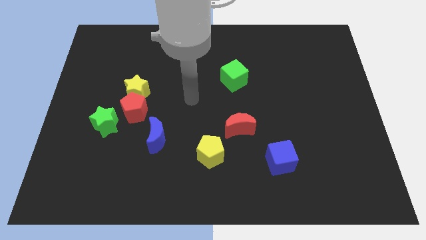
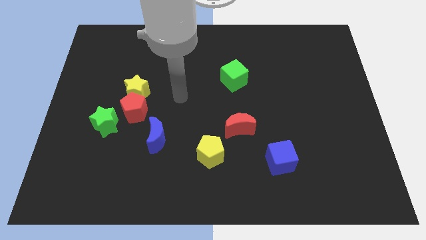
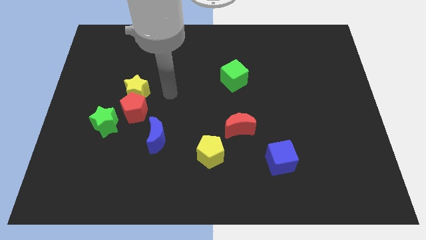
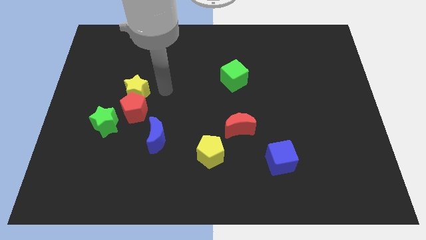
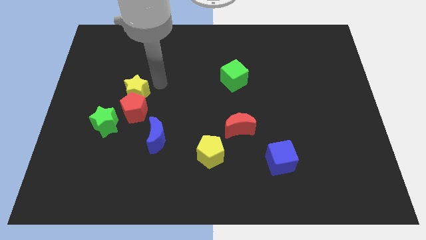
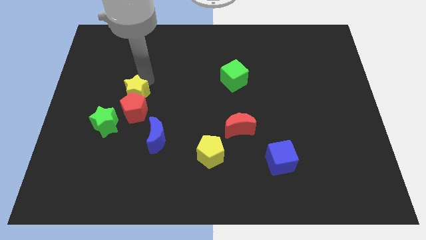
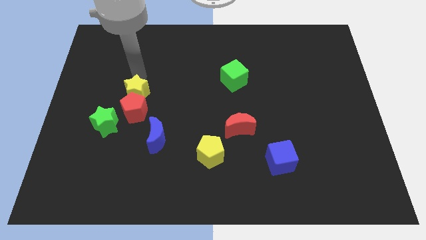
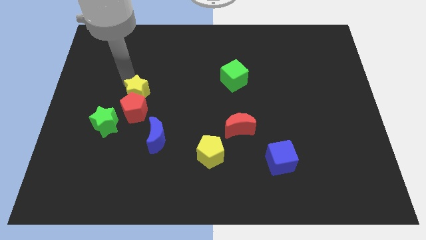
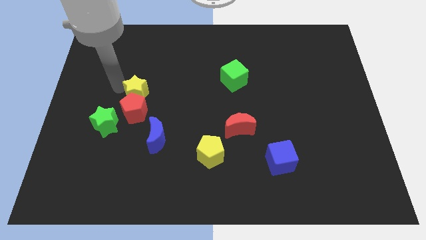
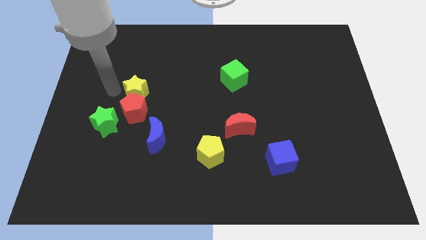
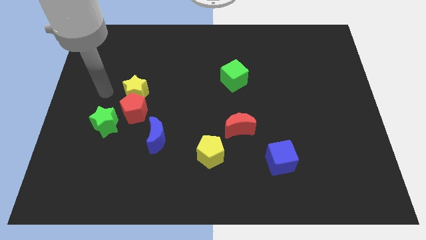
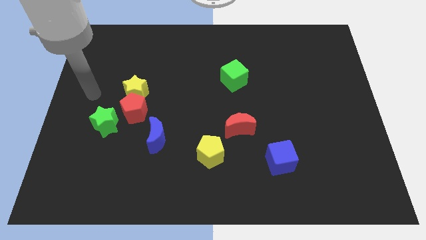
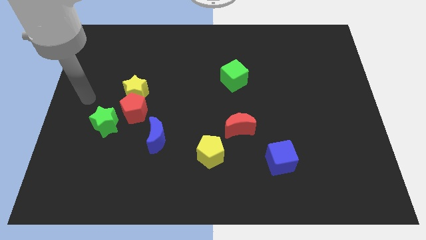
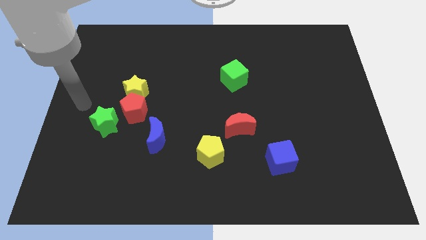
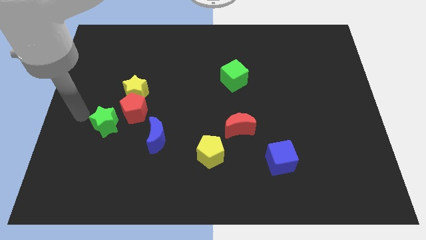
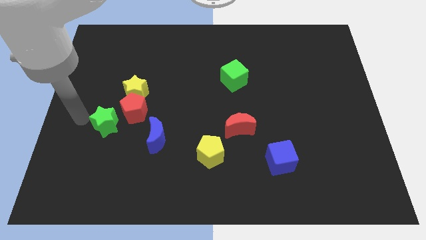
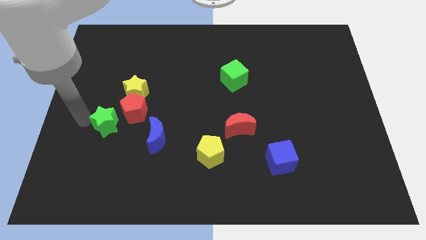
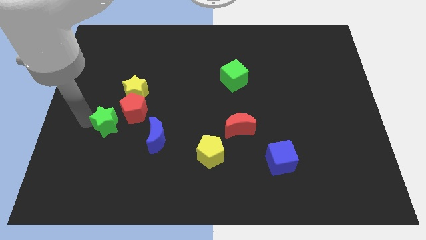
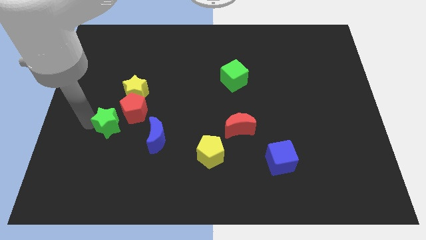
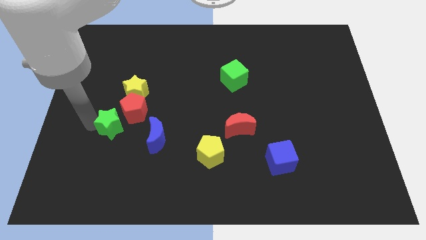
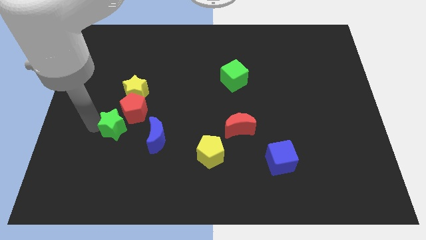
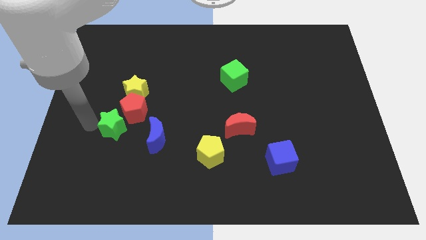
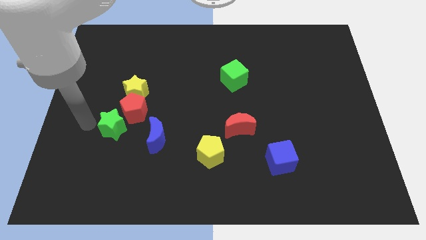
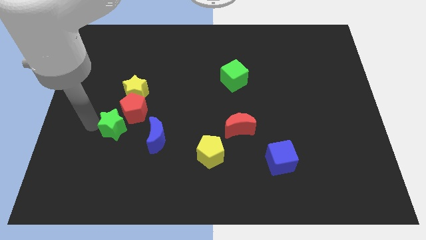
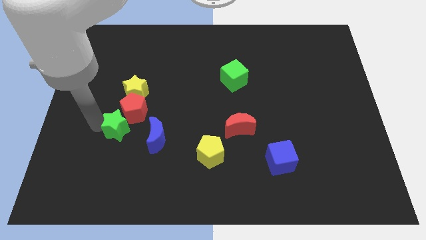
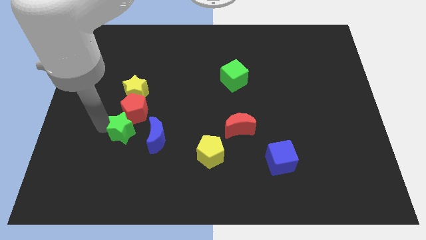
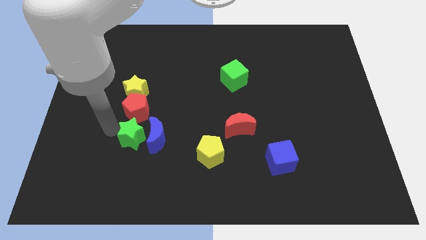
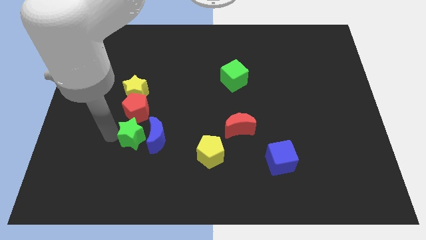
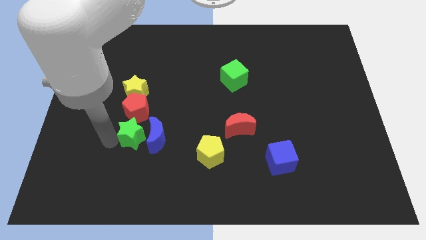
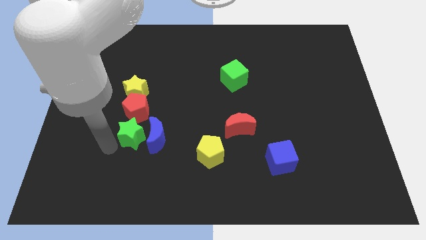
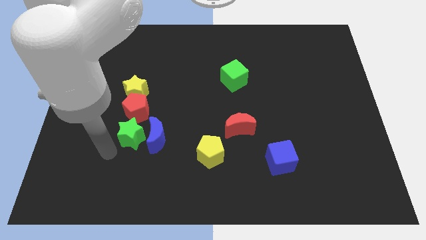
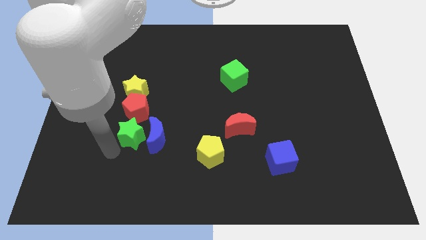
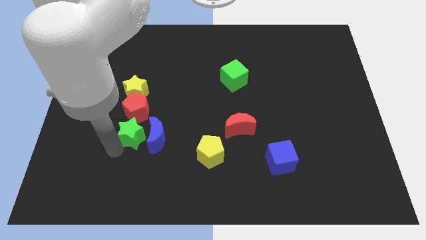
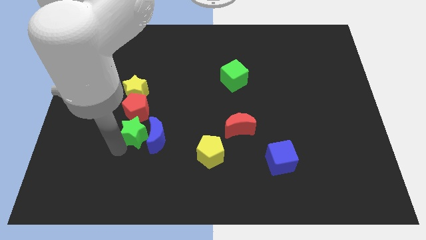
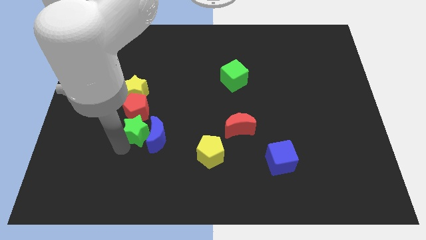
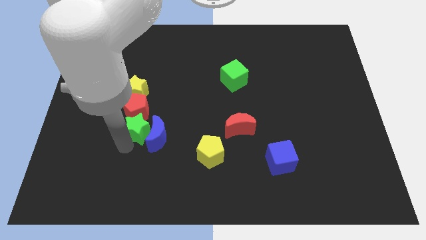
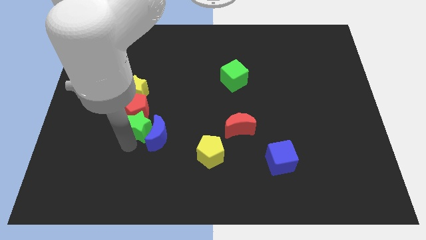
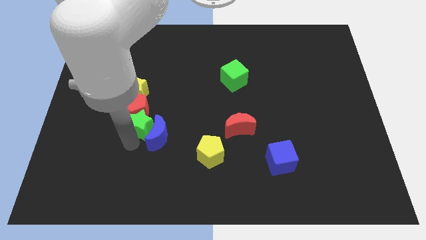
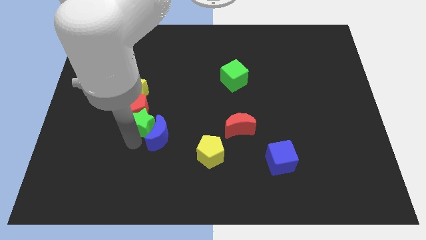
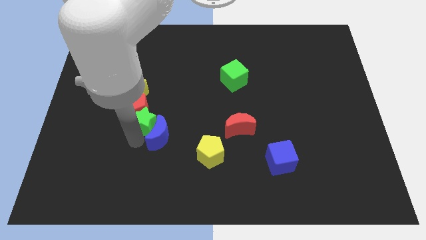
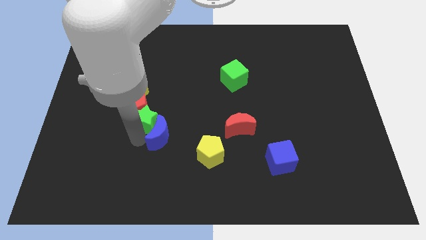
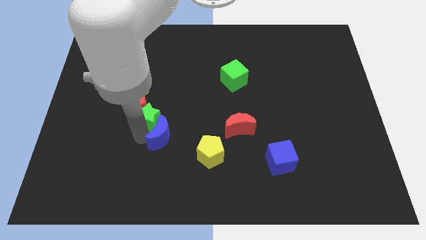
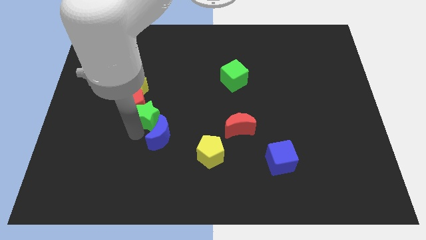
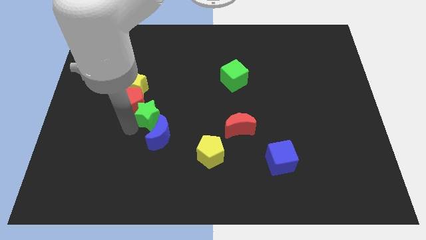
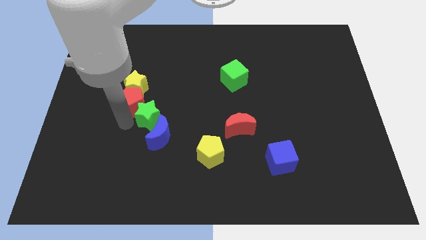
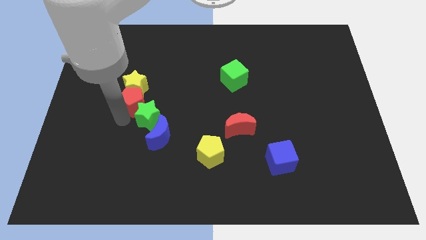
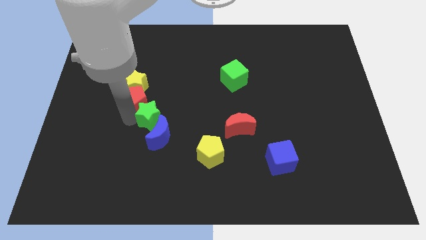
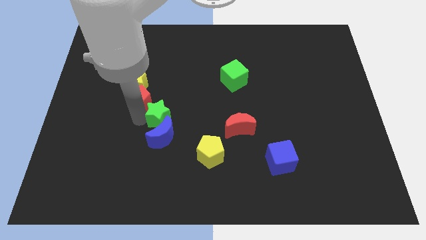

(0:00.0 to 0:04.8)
slide the green star diagonally up and to the right of the blue moon

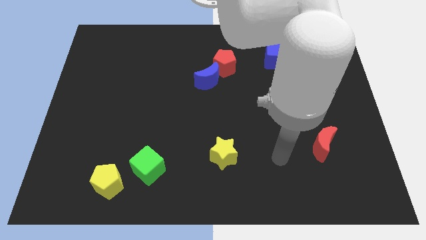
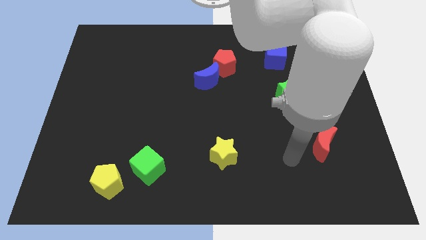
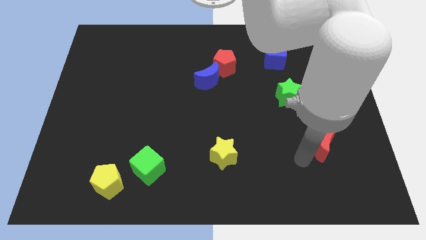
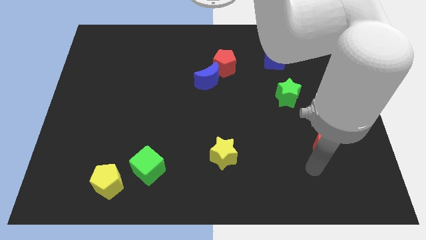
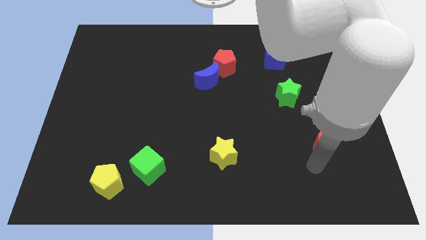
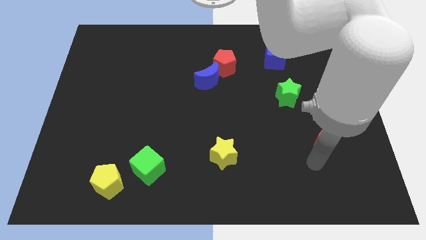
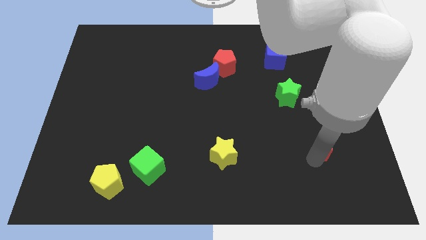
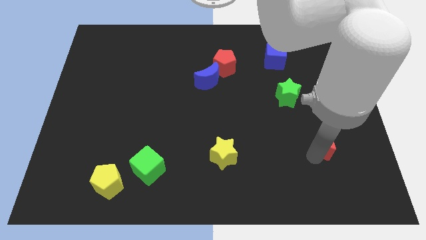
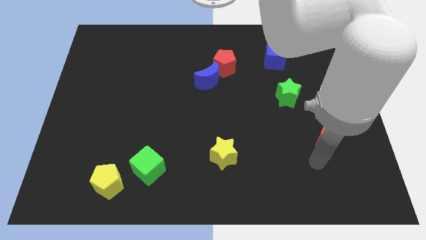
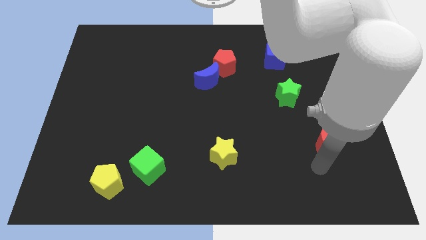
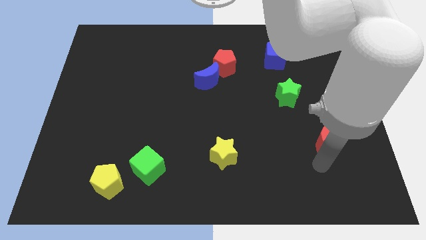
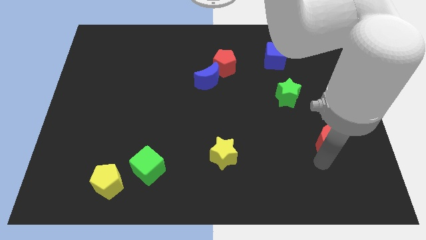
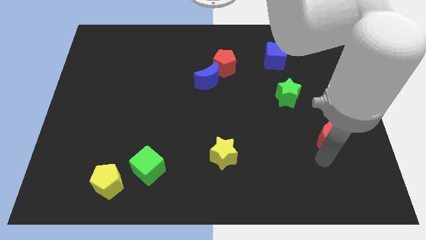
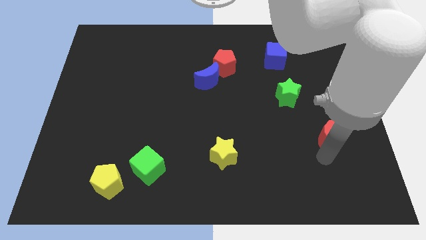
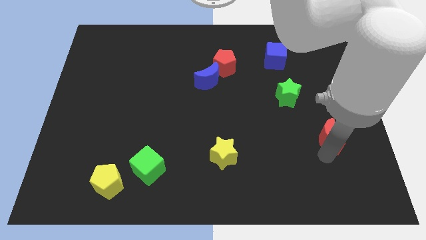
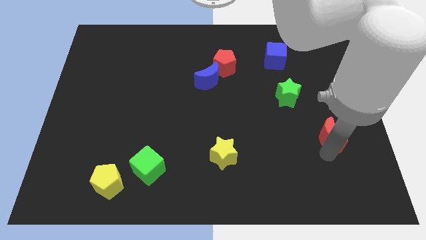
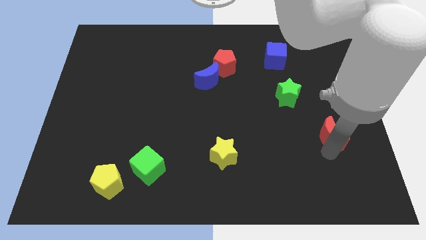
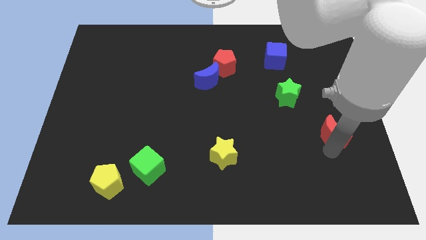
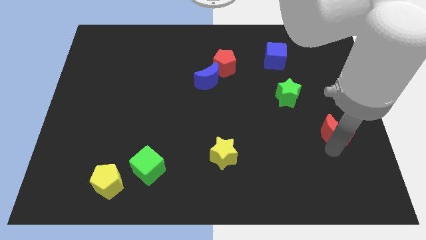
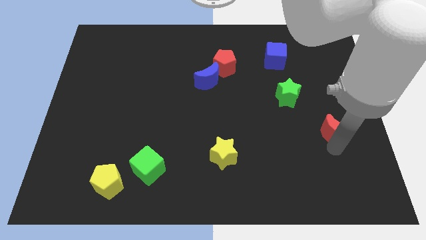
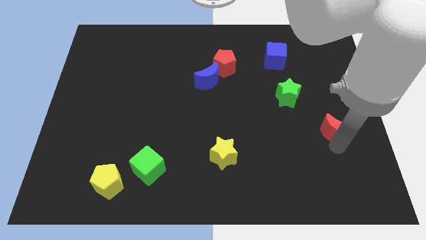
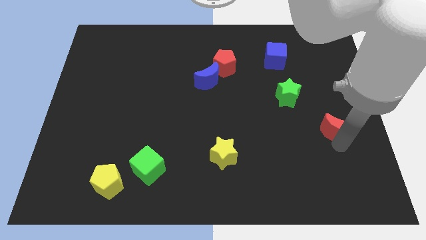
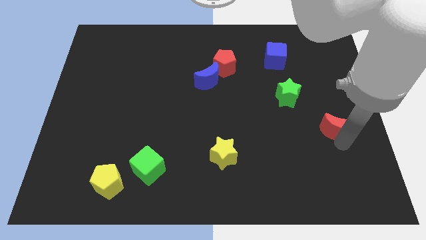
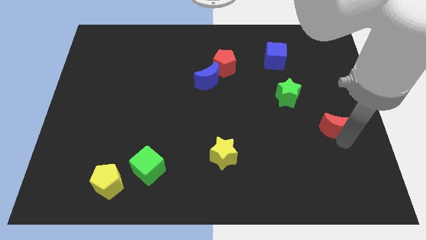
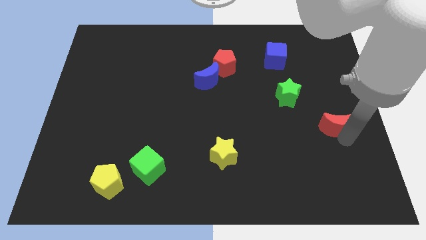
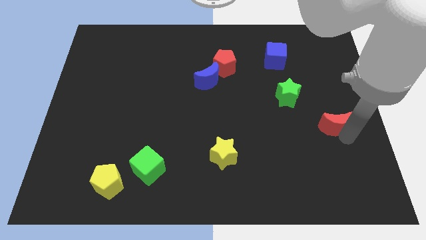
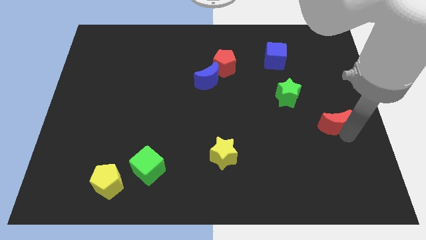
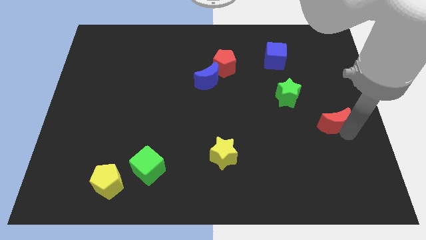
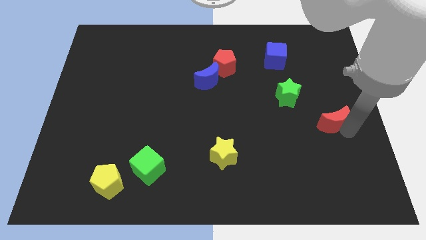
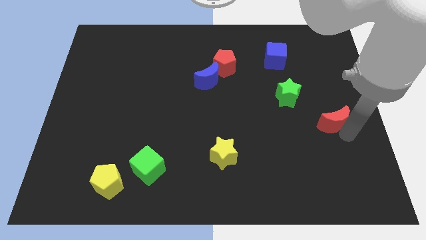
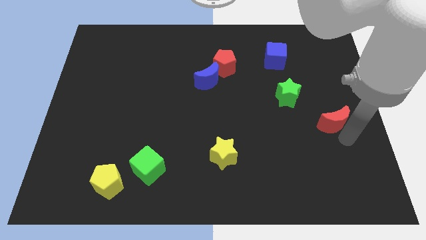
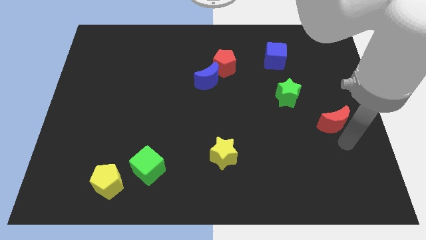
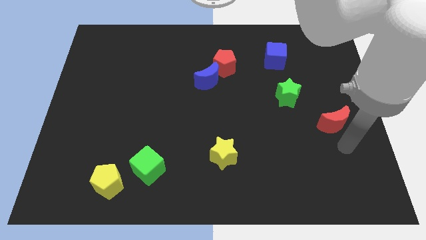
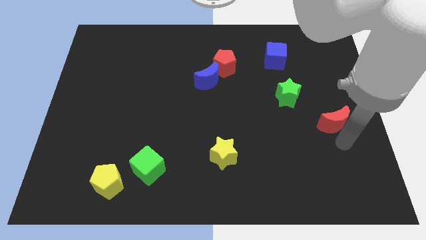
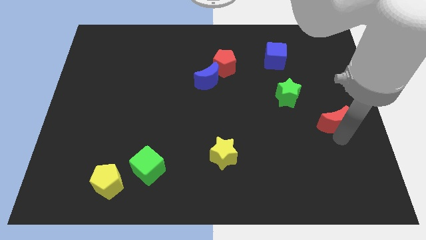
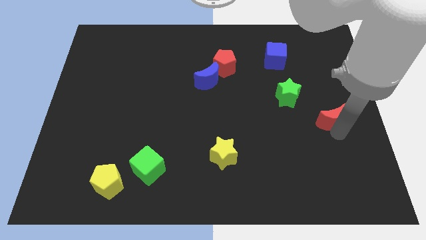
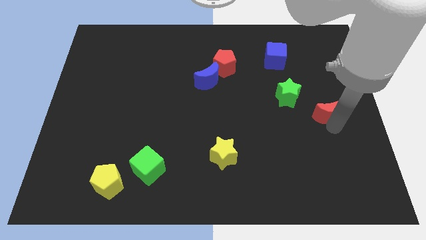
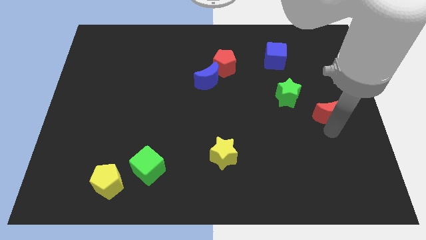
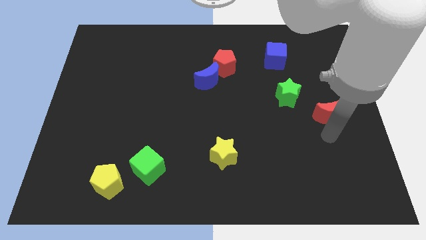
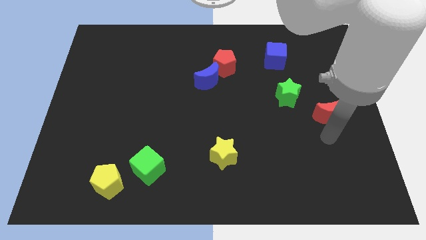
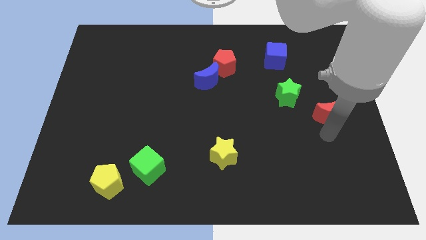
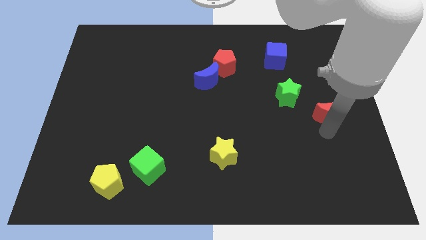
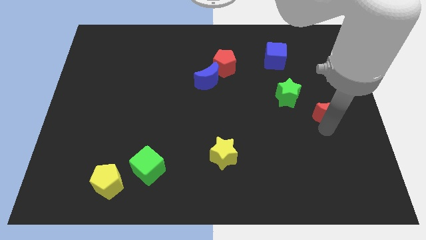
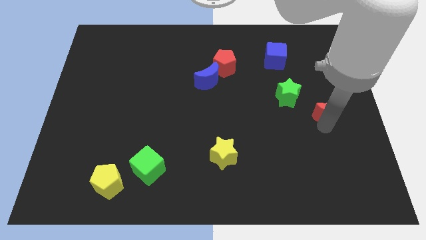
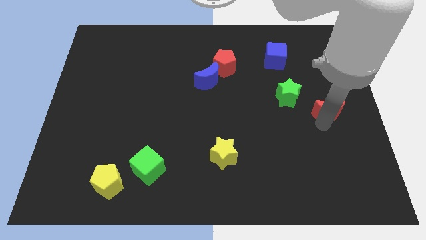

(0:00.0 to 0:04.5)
slide the red moon right of the green star
